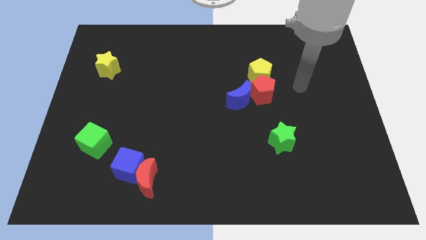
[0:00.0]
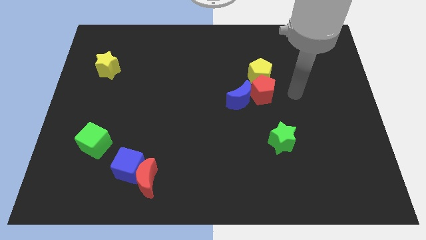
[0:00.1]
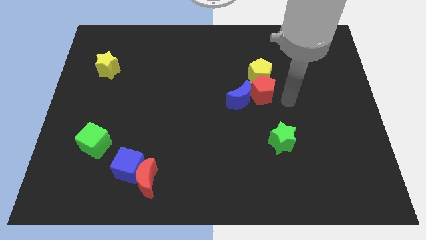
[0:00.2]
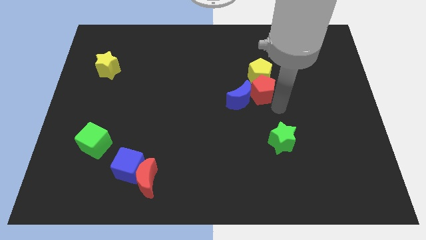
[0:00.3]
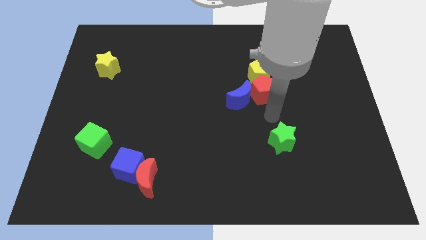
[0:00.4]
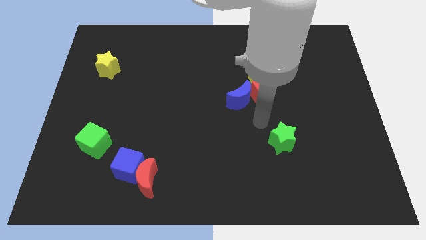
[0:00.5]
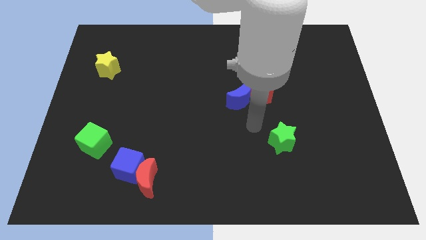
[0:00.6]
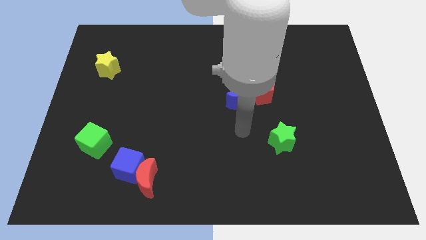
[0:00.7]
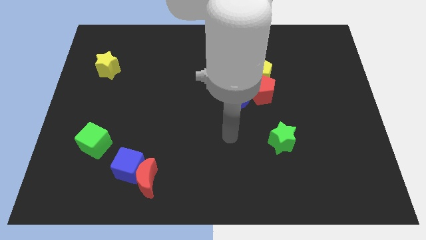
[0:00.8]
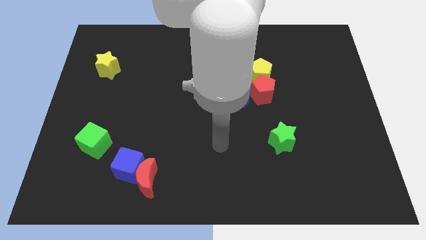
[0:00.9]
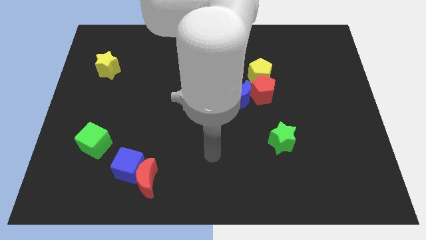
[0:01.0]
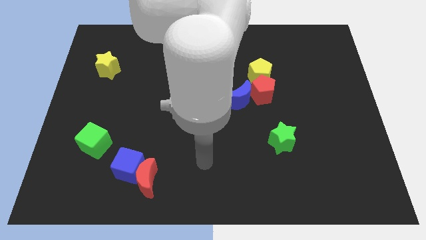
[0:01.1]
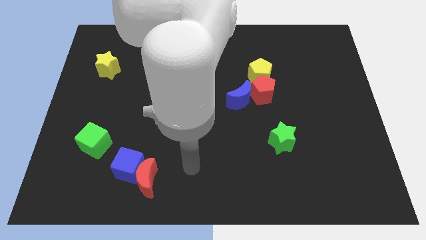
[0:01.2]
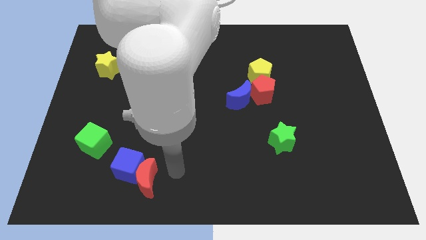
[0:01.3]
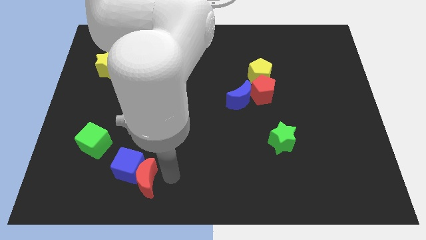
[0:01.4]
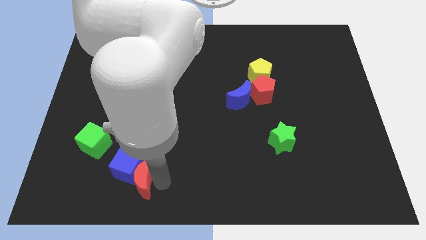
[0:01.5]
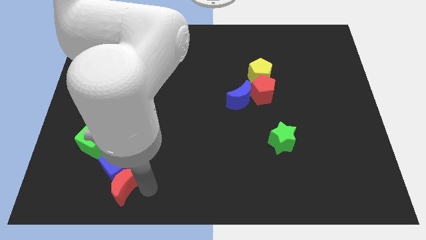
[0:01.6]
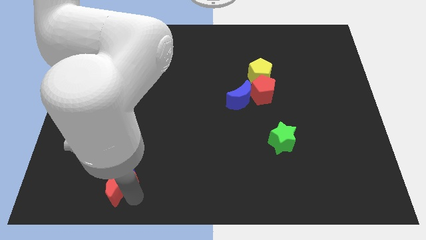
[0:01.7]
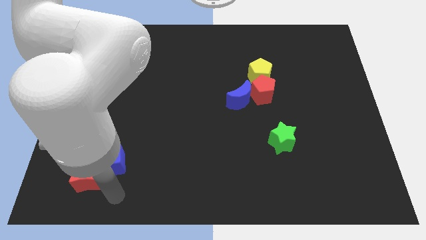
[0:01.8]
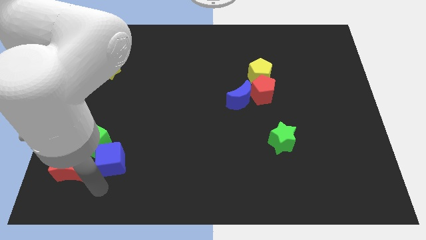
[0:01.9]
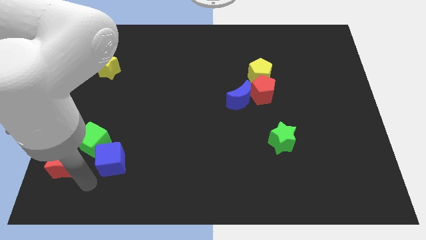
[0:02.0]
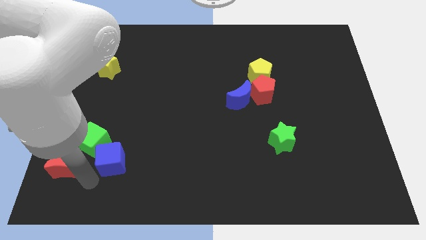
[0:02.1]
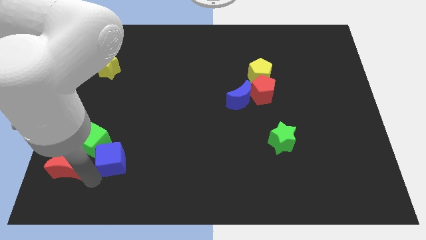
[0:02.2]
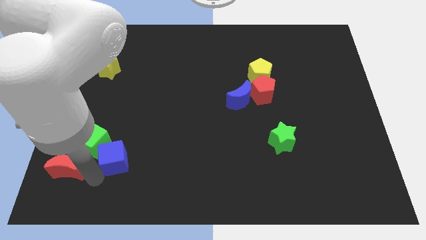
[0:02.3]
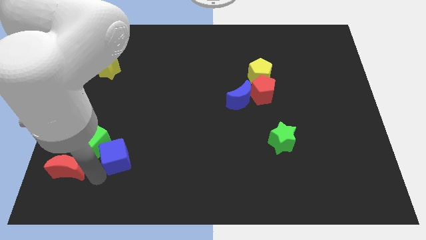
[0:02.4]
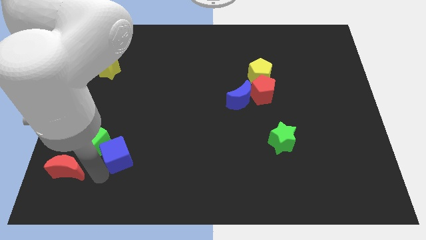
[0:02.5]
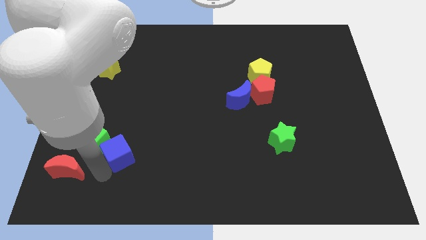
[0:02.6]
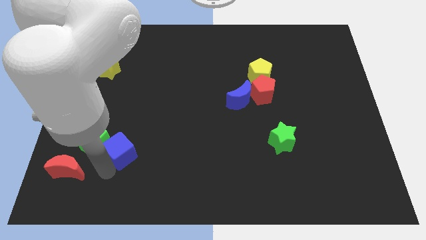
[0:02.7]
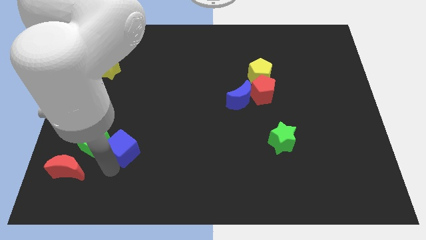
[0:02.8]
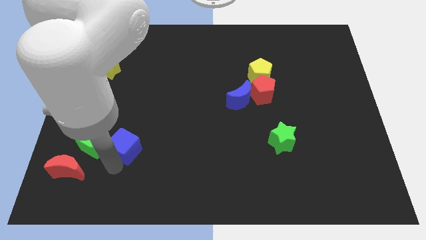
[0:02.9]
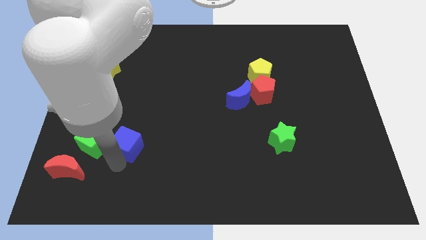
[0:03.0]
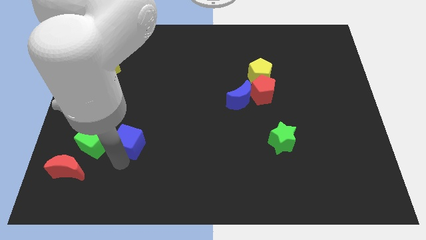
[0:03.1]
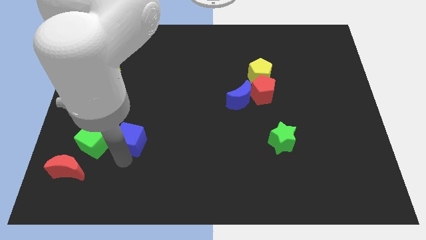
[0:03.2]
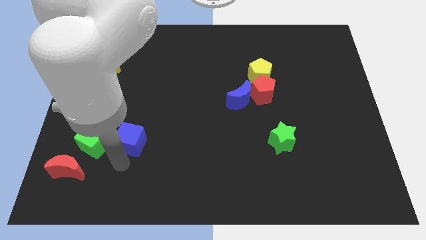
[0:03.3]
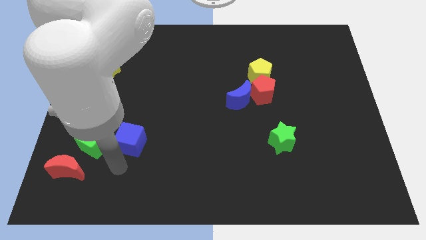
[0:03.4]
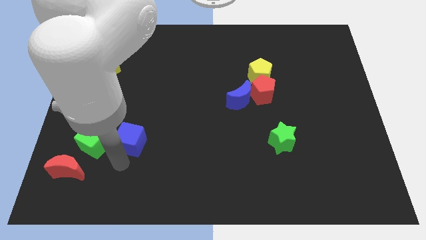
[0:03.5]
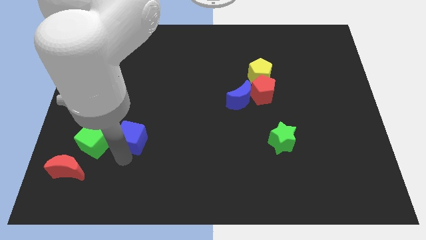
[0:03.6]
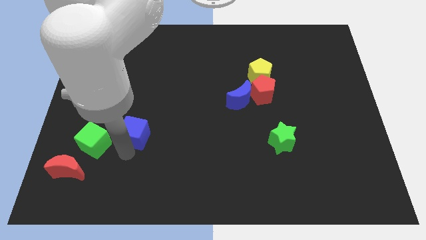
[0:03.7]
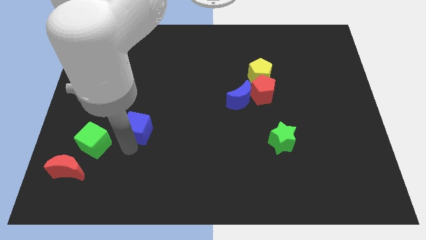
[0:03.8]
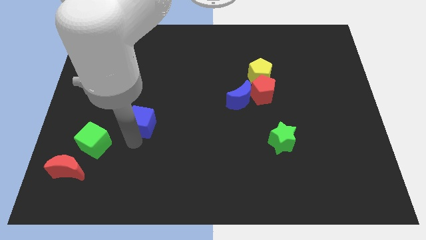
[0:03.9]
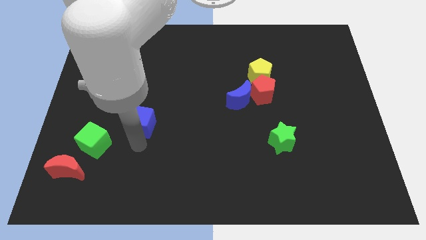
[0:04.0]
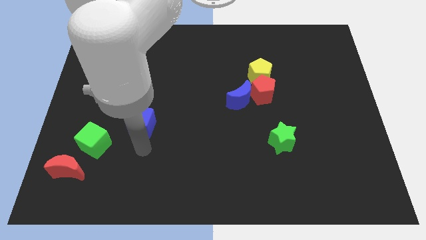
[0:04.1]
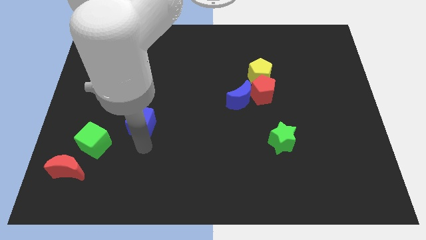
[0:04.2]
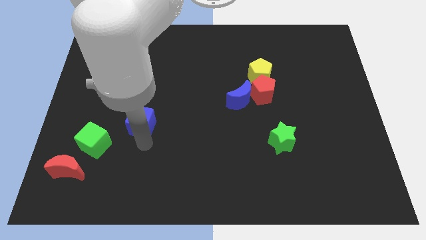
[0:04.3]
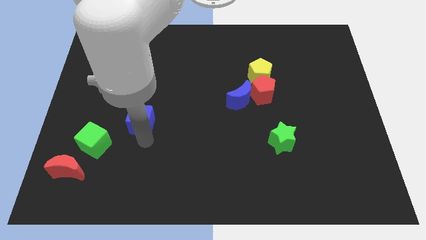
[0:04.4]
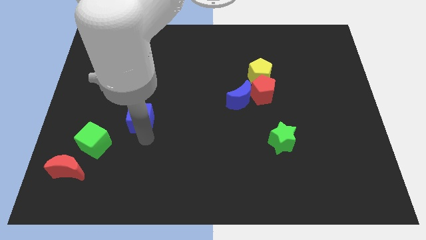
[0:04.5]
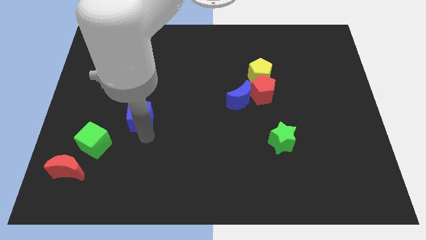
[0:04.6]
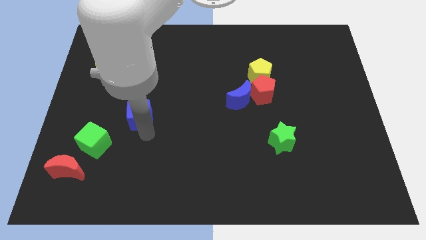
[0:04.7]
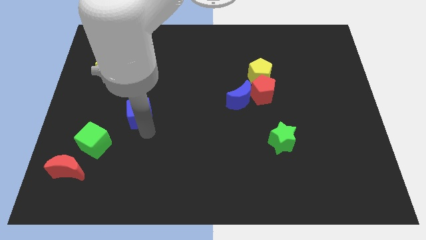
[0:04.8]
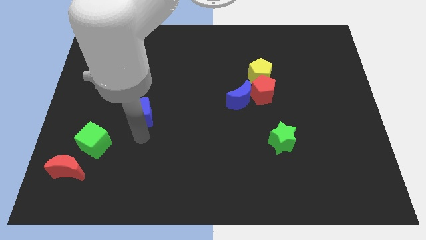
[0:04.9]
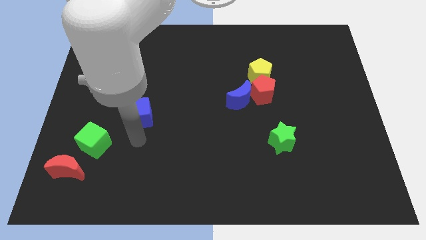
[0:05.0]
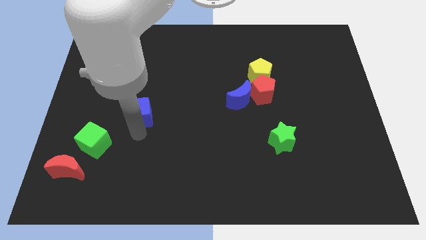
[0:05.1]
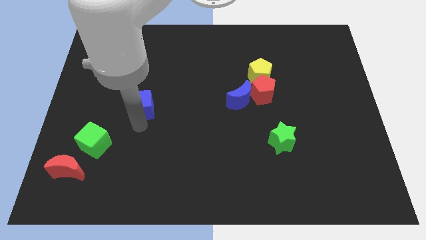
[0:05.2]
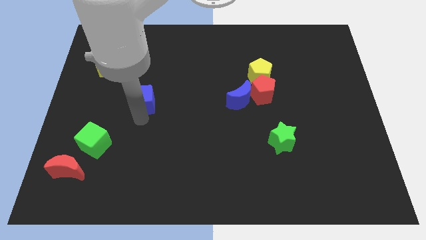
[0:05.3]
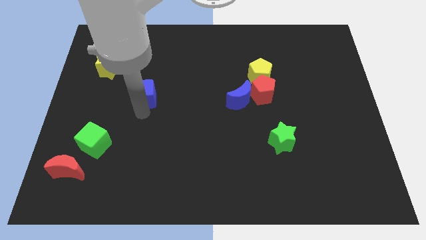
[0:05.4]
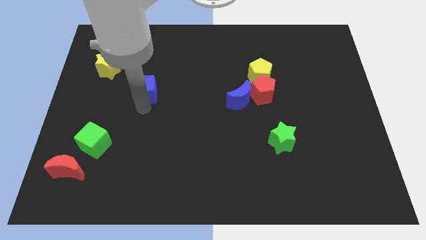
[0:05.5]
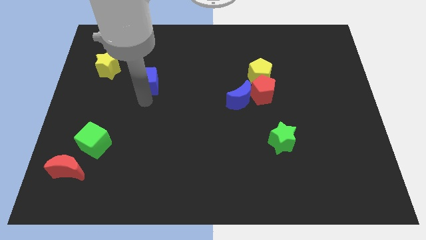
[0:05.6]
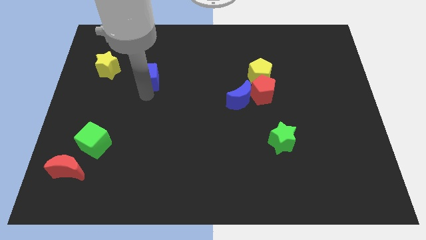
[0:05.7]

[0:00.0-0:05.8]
slide the blue cube just right of the yellow star
